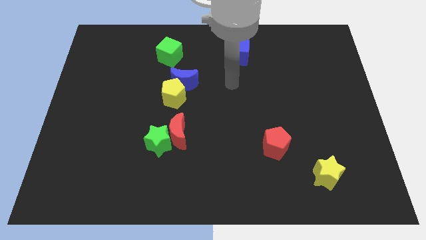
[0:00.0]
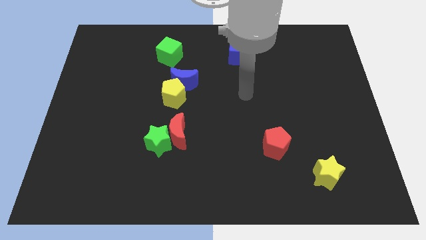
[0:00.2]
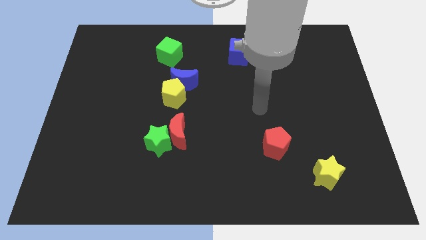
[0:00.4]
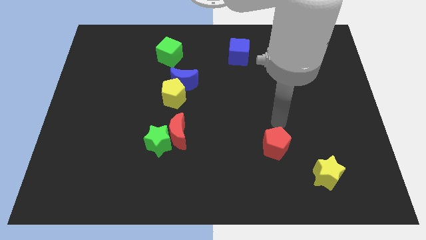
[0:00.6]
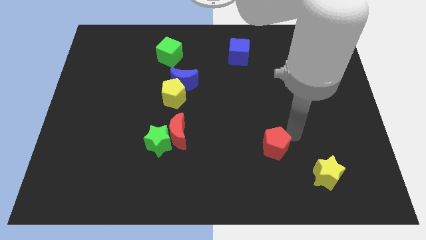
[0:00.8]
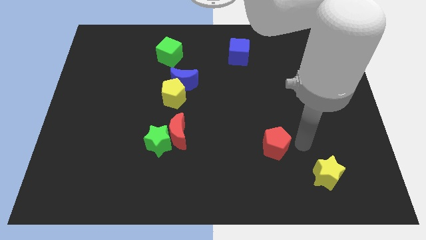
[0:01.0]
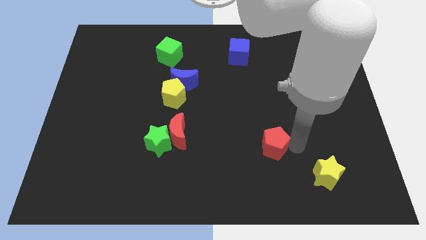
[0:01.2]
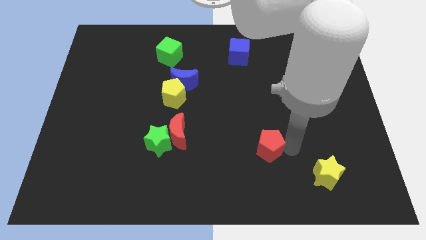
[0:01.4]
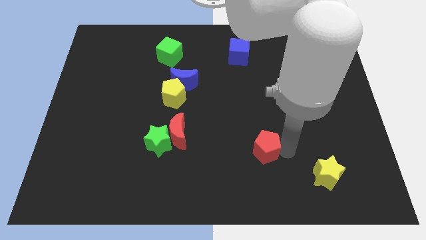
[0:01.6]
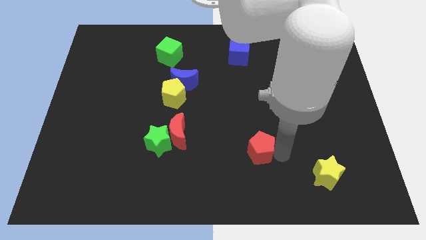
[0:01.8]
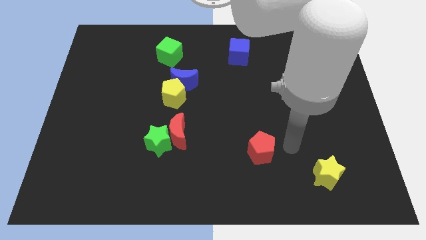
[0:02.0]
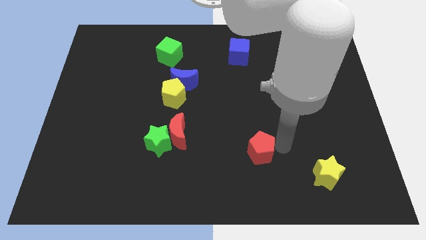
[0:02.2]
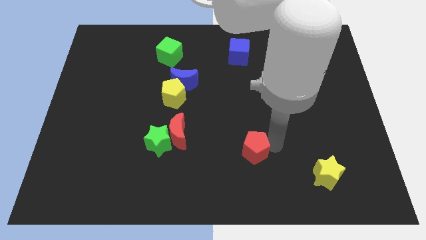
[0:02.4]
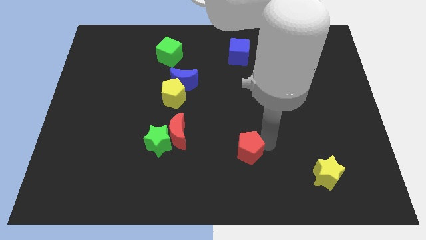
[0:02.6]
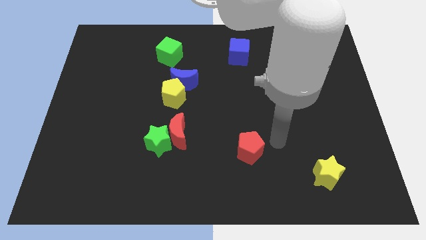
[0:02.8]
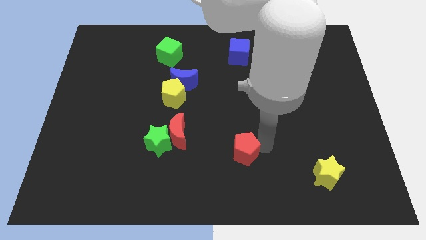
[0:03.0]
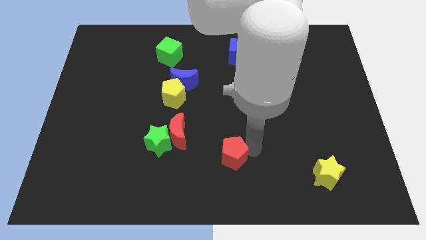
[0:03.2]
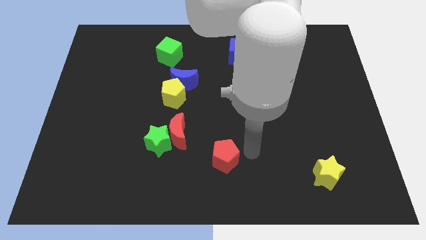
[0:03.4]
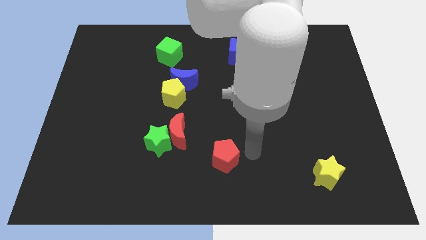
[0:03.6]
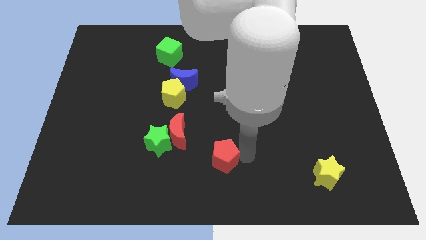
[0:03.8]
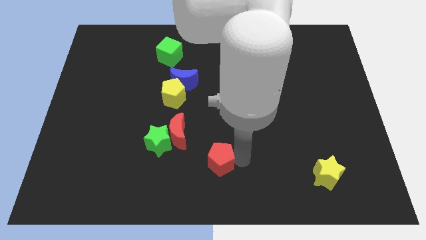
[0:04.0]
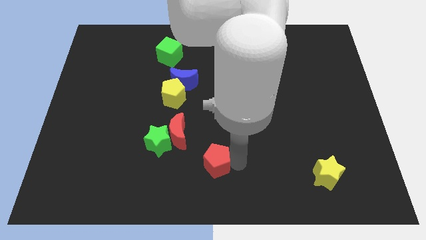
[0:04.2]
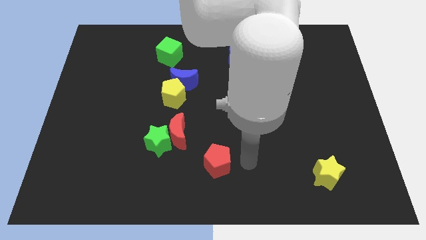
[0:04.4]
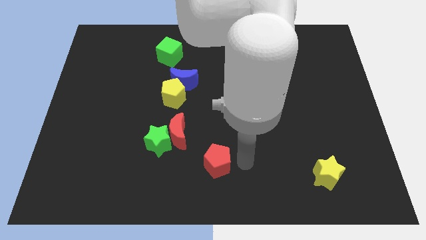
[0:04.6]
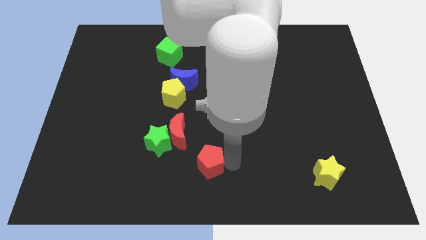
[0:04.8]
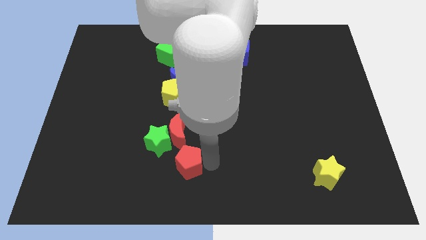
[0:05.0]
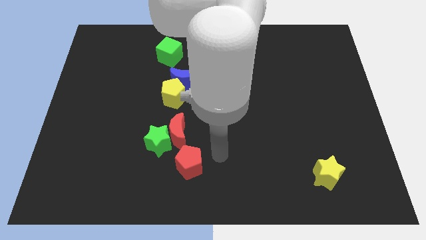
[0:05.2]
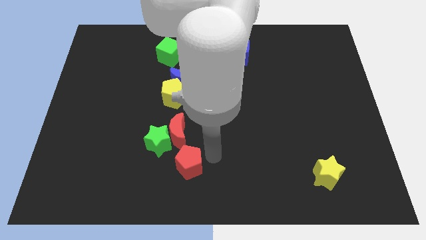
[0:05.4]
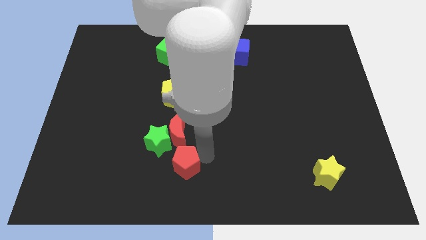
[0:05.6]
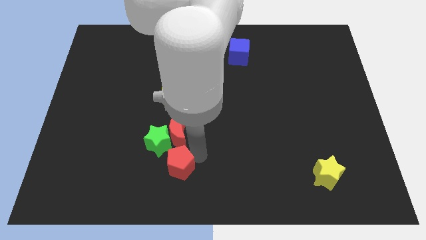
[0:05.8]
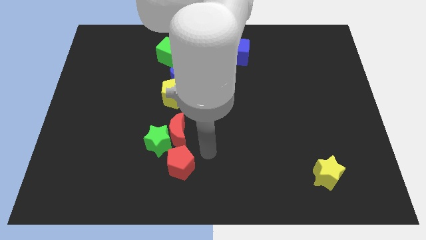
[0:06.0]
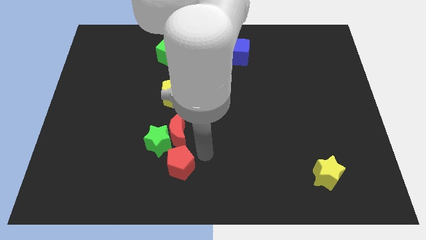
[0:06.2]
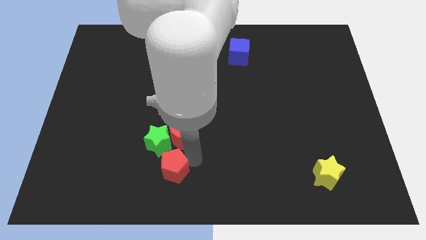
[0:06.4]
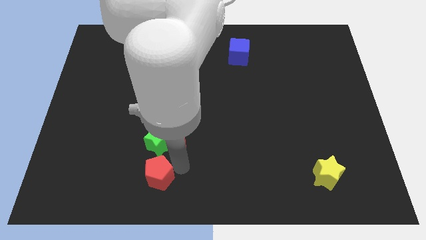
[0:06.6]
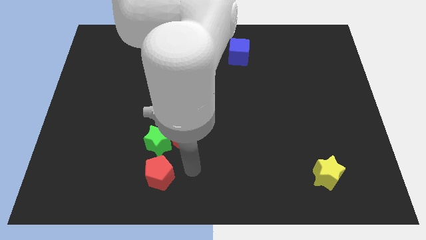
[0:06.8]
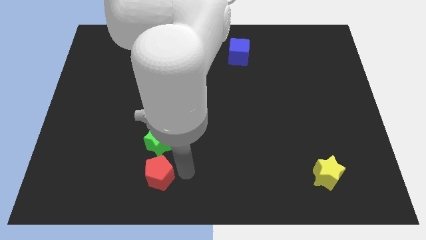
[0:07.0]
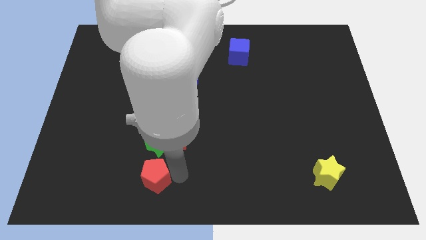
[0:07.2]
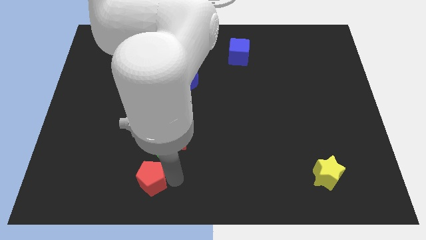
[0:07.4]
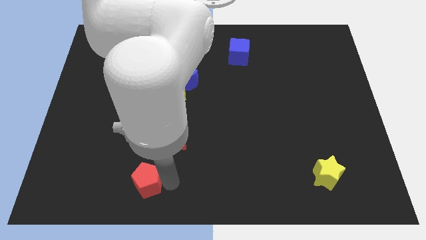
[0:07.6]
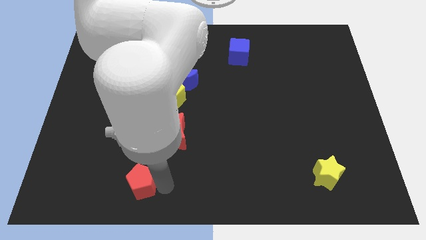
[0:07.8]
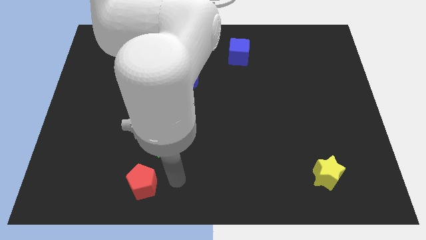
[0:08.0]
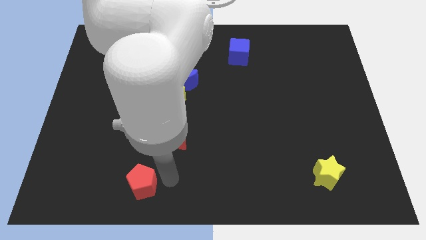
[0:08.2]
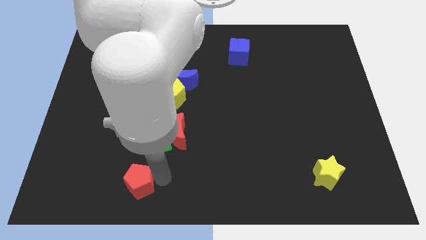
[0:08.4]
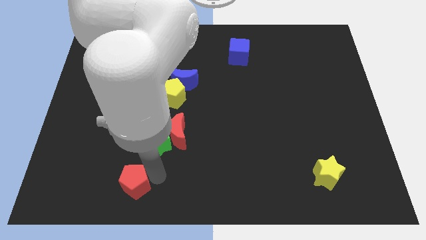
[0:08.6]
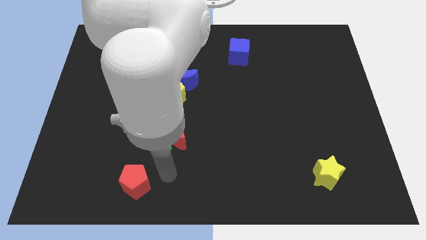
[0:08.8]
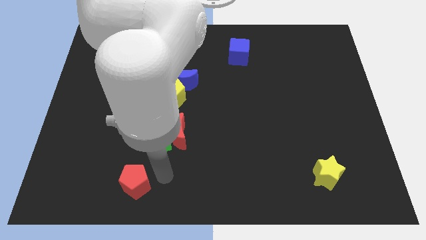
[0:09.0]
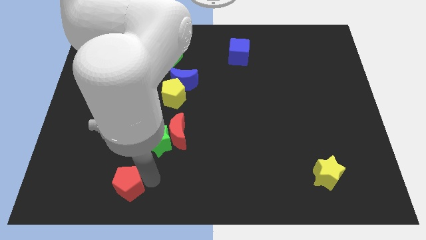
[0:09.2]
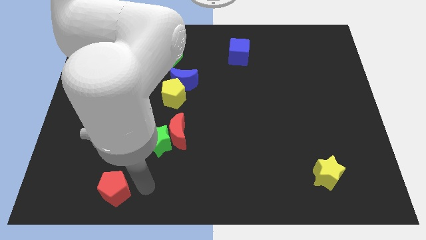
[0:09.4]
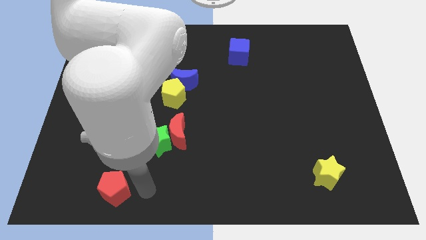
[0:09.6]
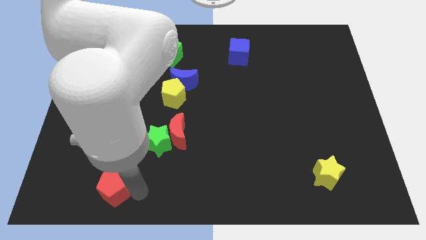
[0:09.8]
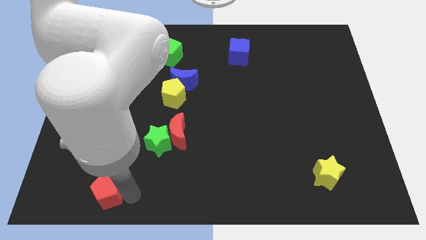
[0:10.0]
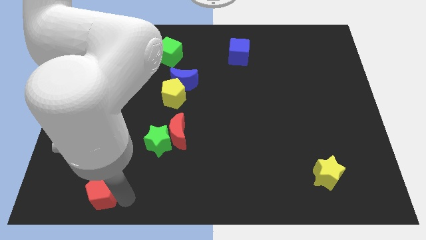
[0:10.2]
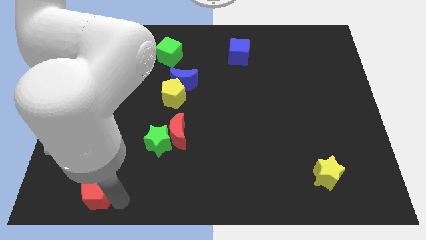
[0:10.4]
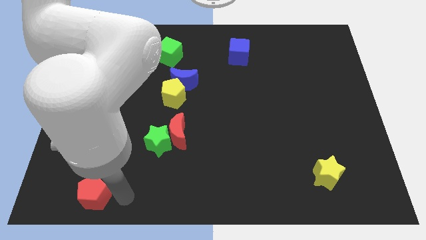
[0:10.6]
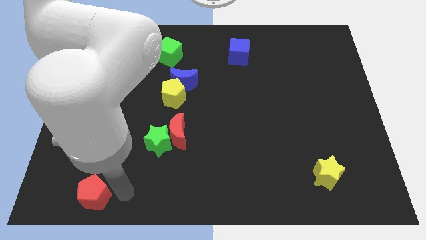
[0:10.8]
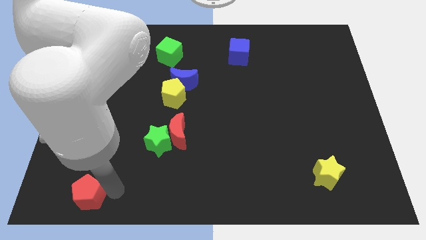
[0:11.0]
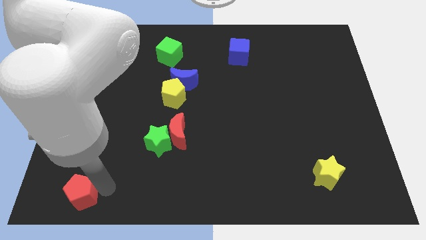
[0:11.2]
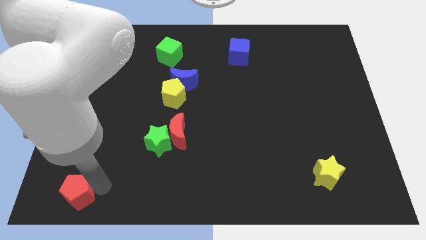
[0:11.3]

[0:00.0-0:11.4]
push the red pentagon to the lower left corner

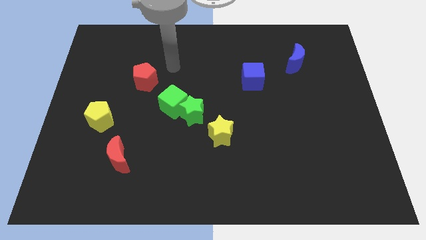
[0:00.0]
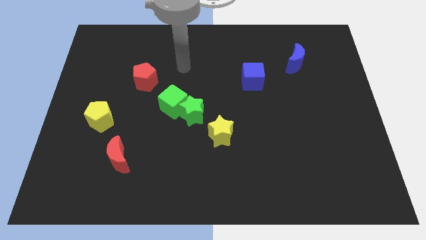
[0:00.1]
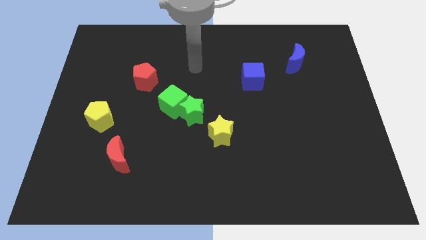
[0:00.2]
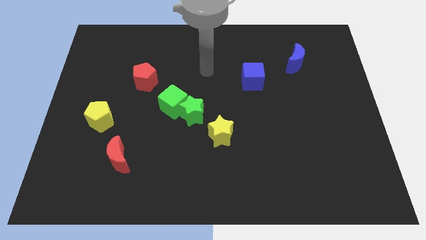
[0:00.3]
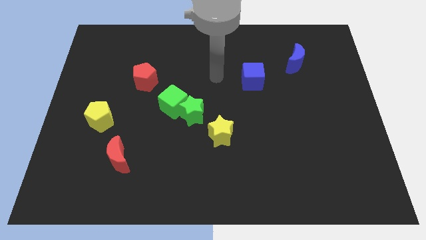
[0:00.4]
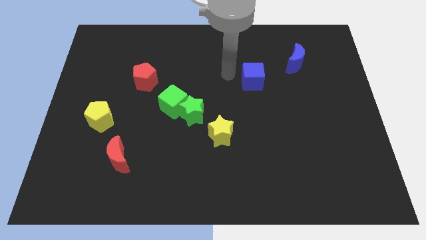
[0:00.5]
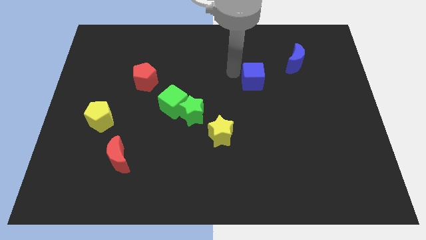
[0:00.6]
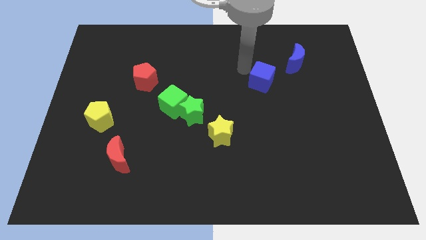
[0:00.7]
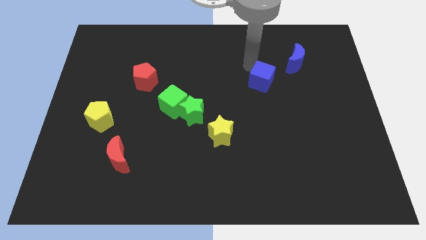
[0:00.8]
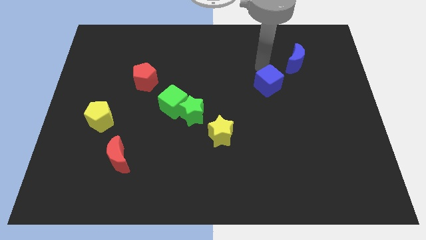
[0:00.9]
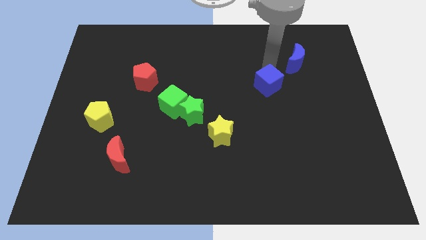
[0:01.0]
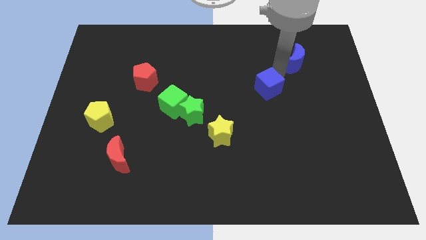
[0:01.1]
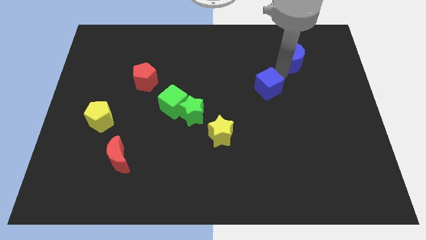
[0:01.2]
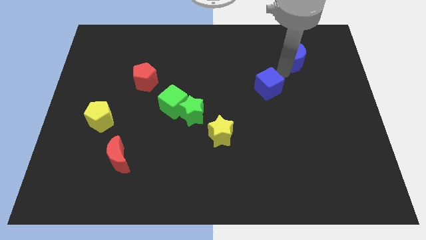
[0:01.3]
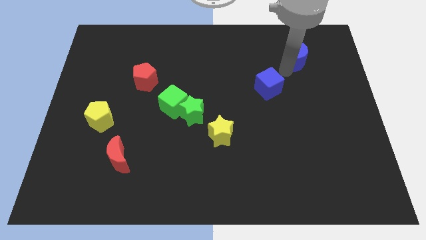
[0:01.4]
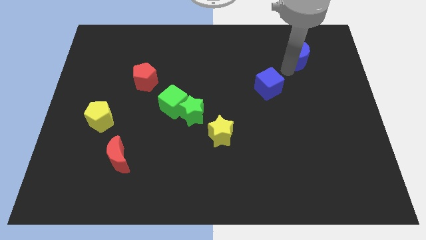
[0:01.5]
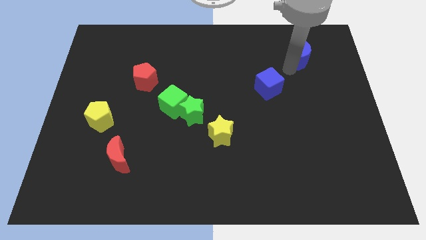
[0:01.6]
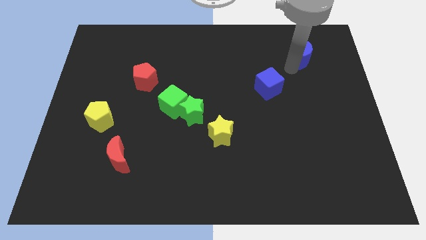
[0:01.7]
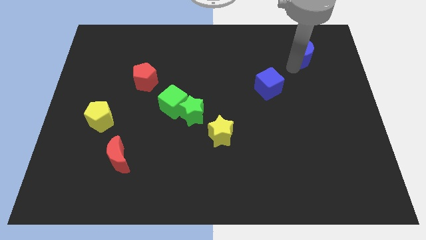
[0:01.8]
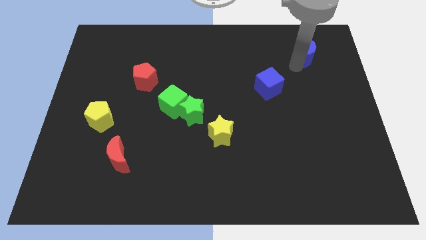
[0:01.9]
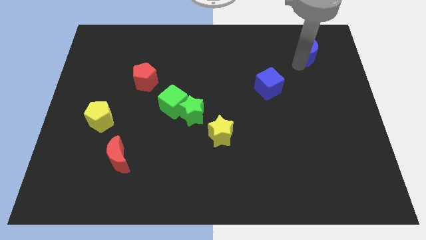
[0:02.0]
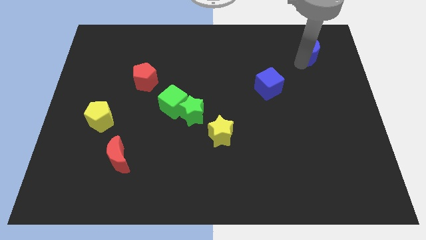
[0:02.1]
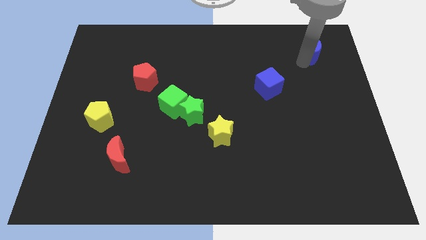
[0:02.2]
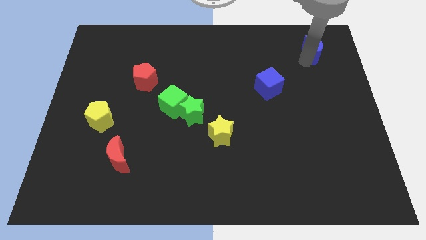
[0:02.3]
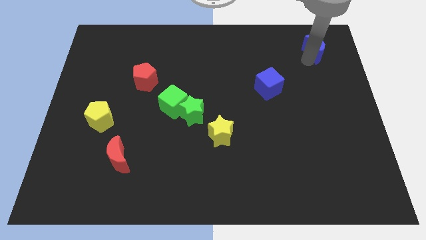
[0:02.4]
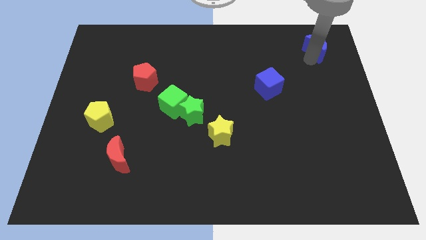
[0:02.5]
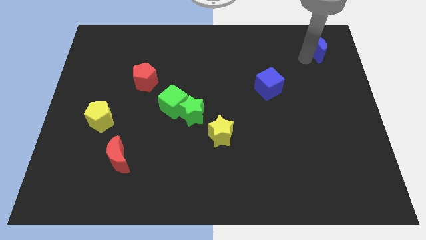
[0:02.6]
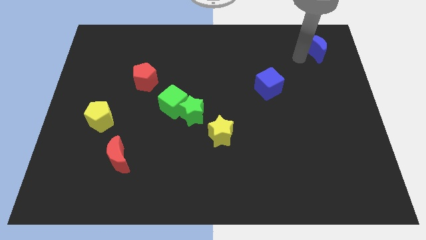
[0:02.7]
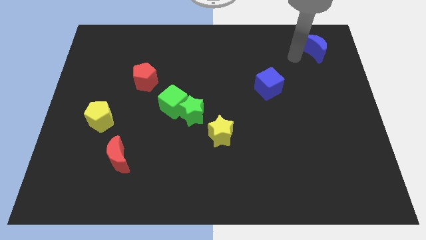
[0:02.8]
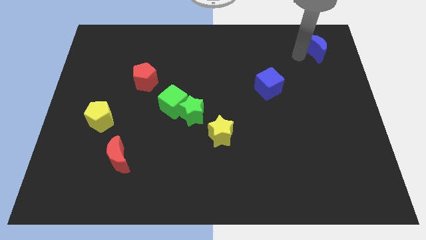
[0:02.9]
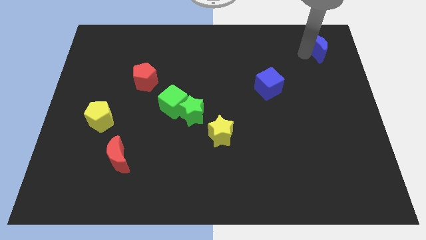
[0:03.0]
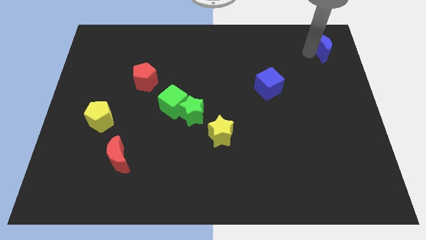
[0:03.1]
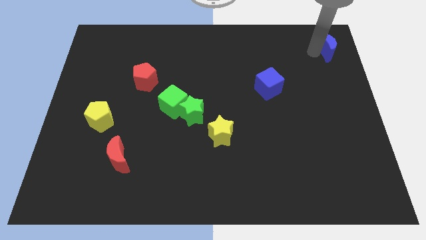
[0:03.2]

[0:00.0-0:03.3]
slide the blue moon to the top right of the board
